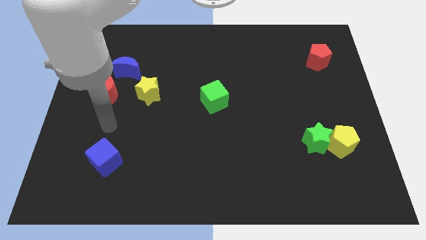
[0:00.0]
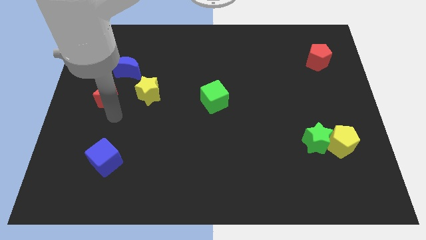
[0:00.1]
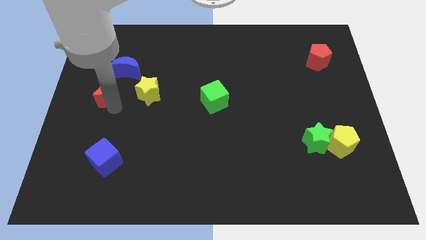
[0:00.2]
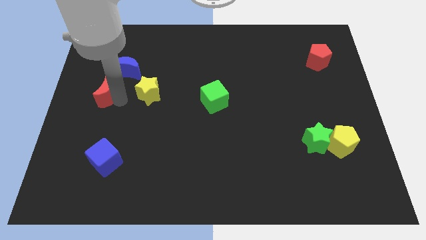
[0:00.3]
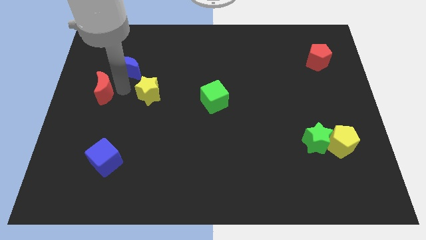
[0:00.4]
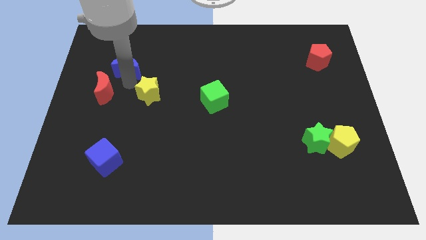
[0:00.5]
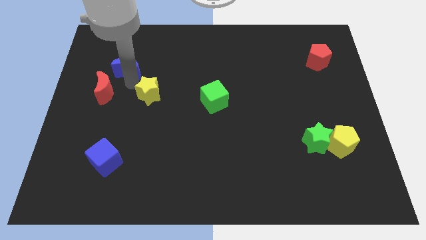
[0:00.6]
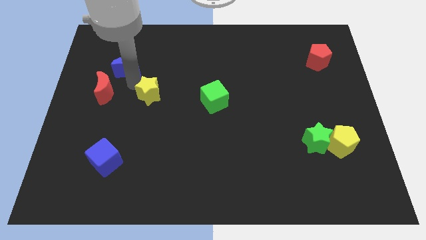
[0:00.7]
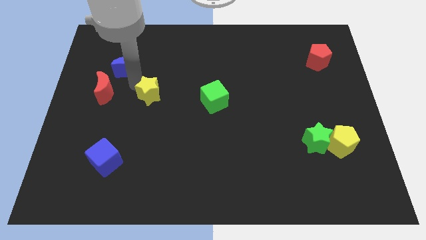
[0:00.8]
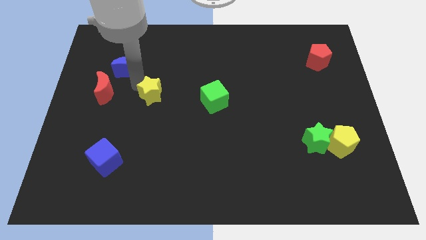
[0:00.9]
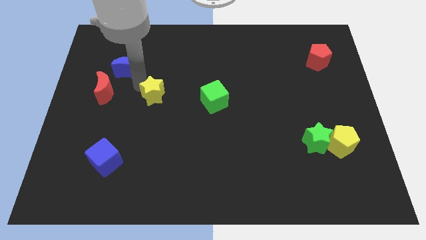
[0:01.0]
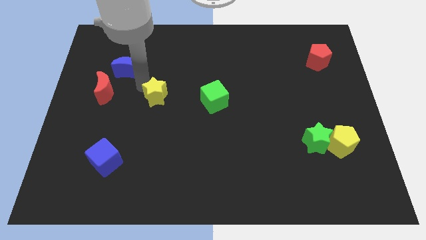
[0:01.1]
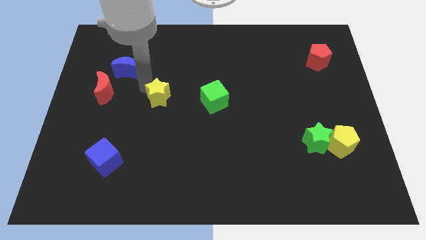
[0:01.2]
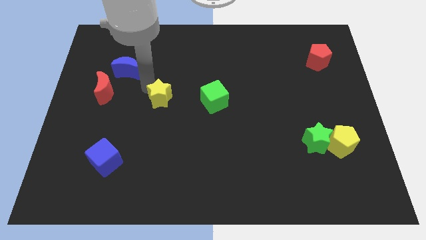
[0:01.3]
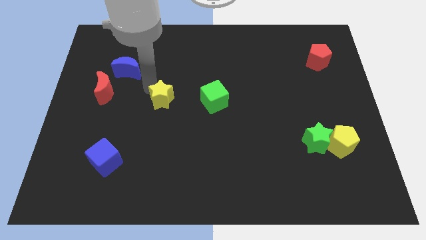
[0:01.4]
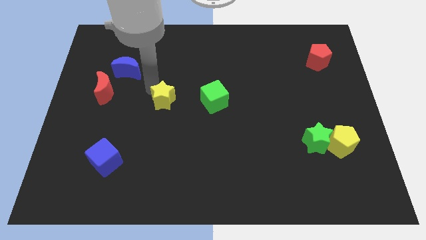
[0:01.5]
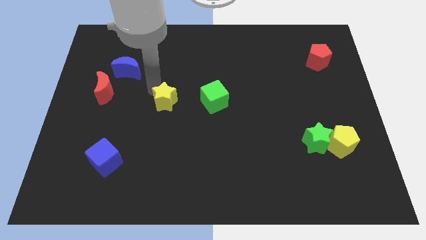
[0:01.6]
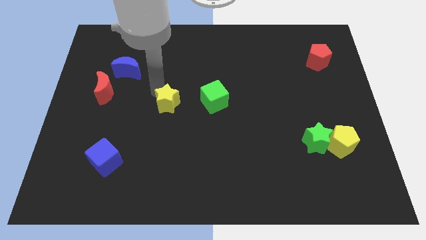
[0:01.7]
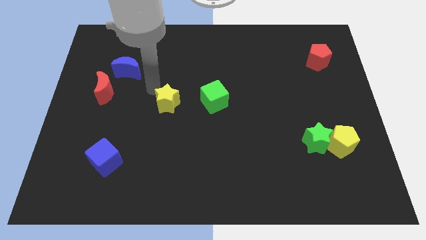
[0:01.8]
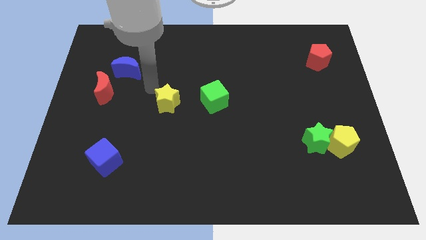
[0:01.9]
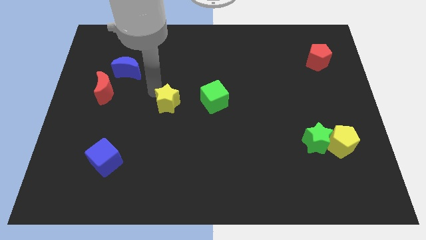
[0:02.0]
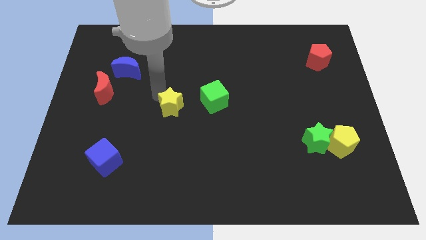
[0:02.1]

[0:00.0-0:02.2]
slightly slide the yellow star diagonally downwards and to the right

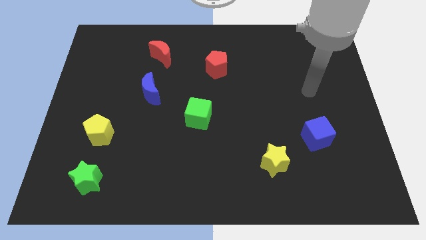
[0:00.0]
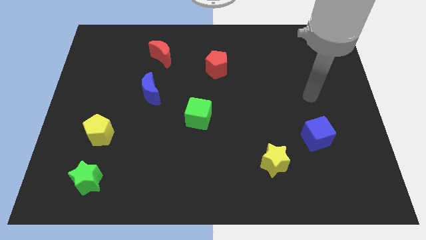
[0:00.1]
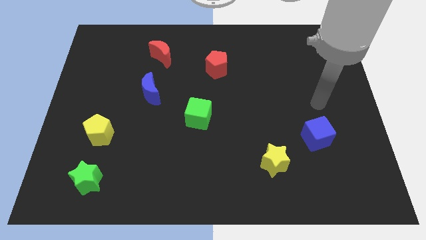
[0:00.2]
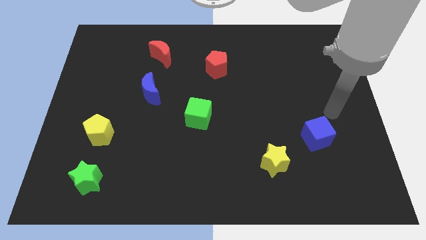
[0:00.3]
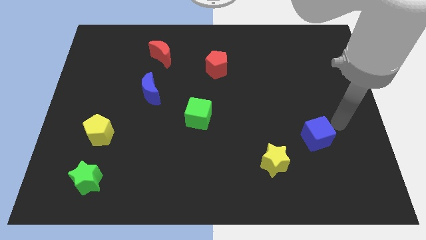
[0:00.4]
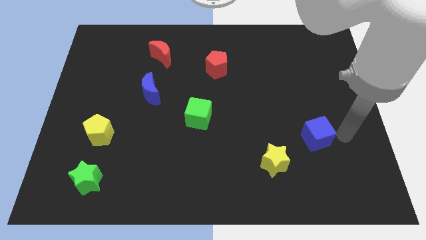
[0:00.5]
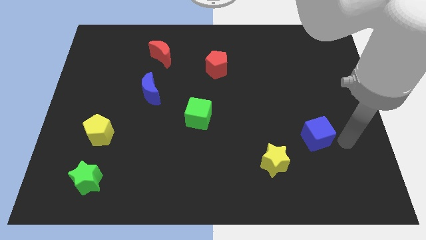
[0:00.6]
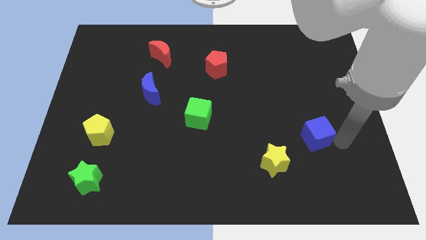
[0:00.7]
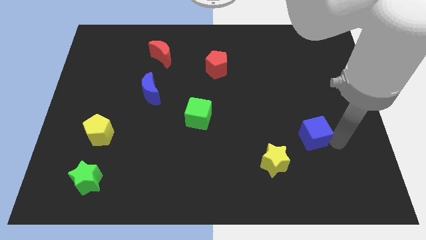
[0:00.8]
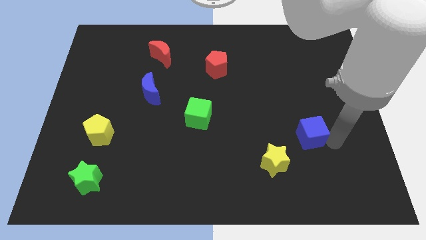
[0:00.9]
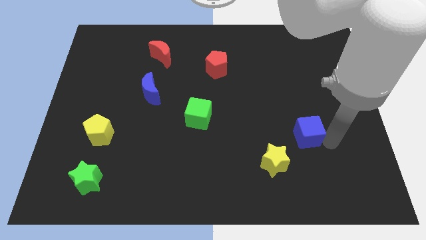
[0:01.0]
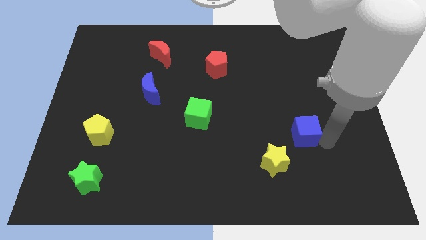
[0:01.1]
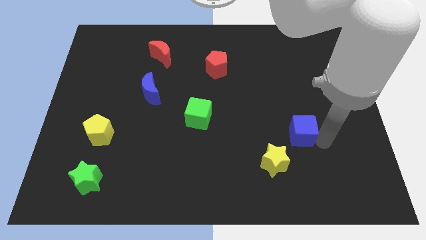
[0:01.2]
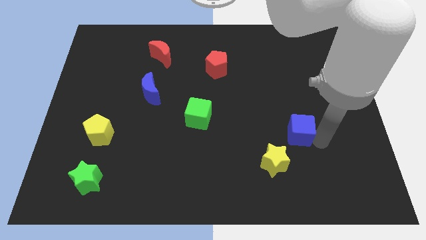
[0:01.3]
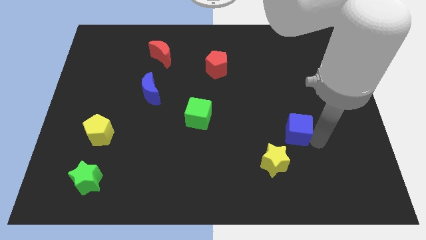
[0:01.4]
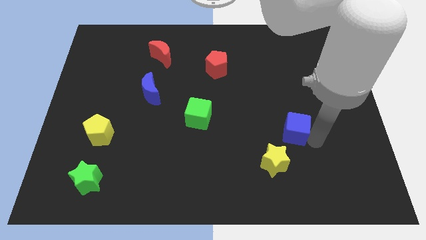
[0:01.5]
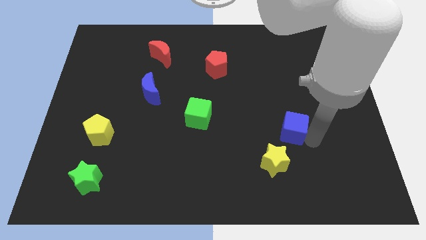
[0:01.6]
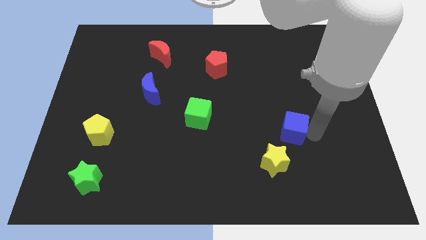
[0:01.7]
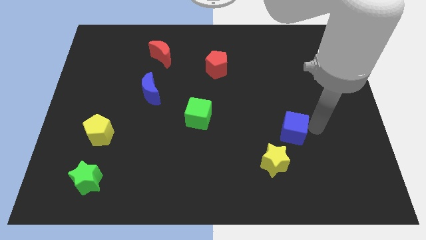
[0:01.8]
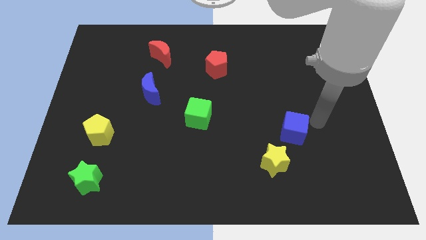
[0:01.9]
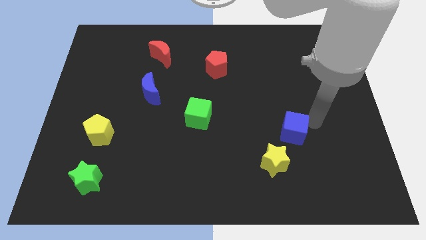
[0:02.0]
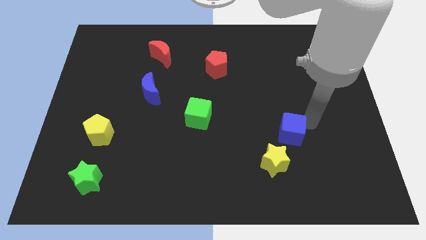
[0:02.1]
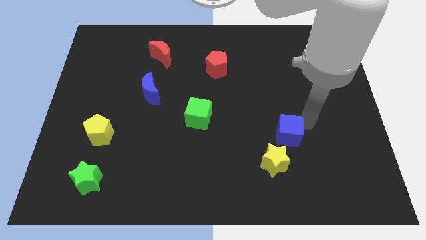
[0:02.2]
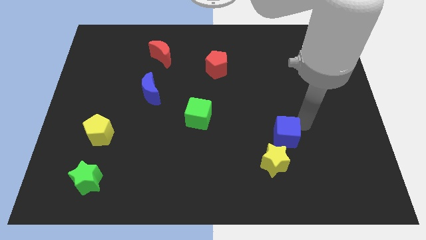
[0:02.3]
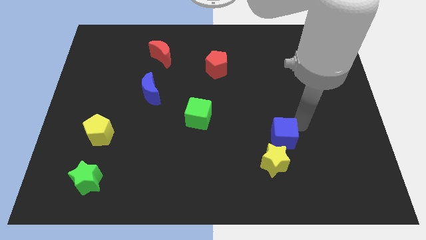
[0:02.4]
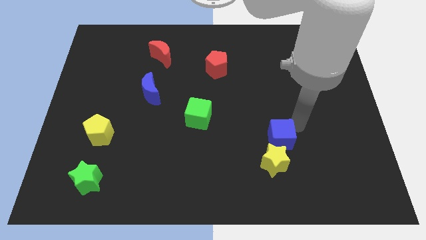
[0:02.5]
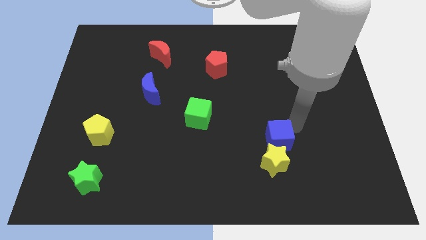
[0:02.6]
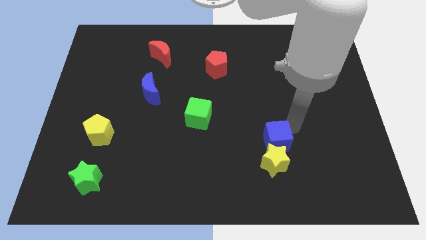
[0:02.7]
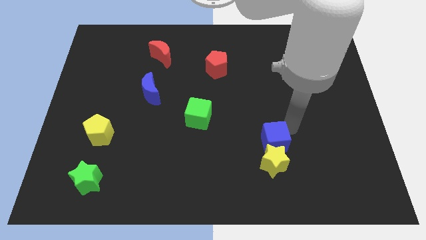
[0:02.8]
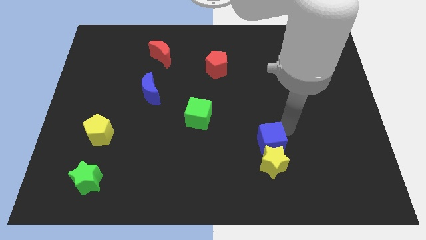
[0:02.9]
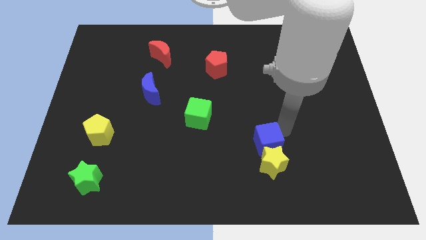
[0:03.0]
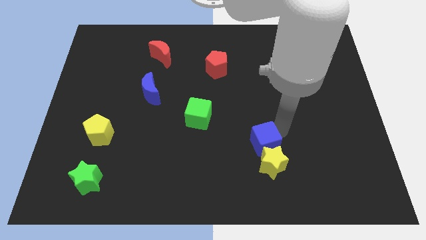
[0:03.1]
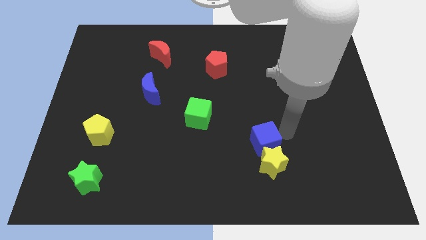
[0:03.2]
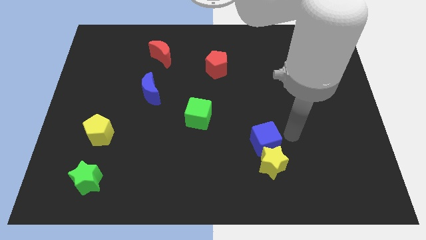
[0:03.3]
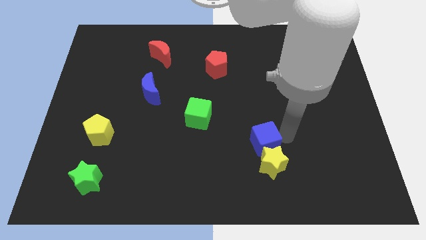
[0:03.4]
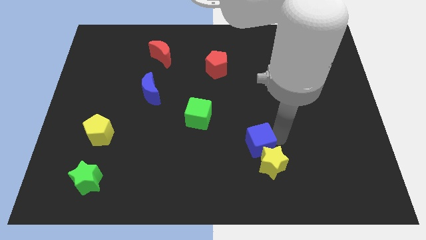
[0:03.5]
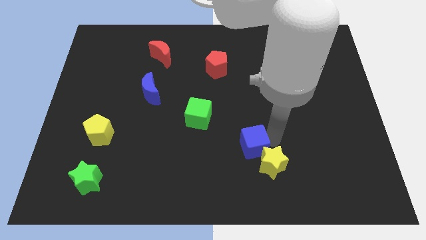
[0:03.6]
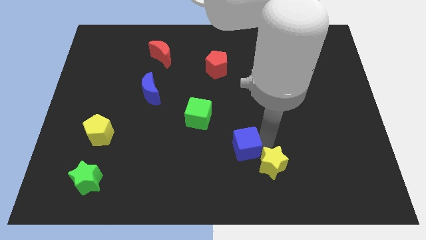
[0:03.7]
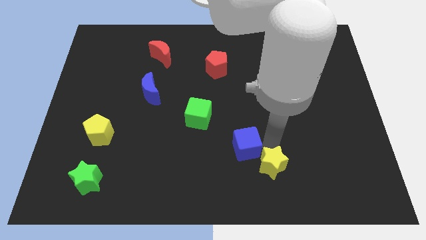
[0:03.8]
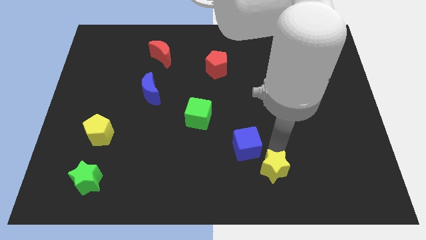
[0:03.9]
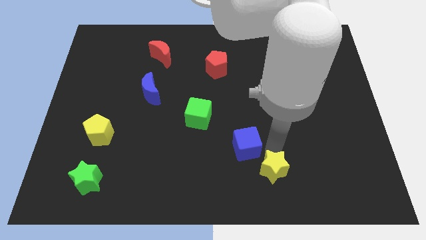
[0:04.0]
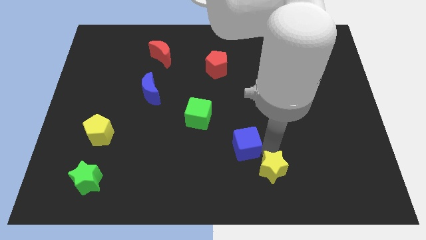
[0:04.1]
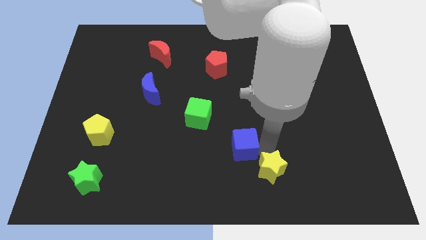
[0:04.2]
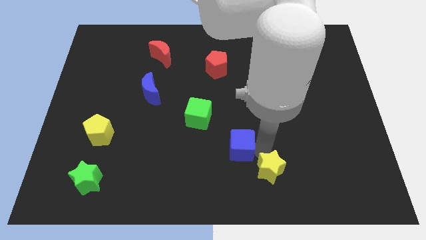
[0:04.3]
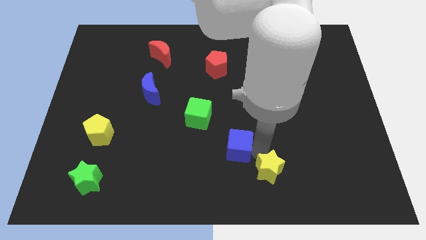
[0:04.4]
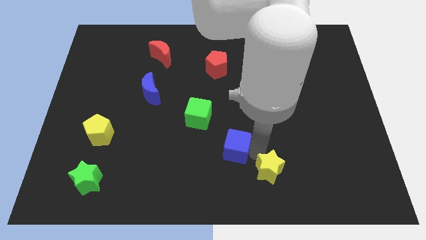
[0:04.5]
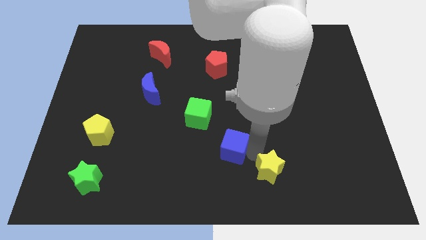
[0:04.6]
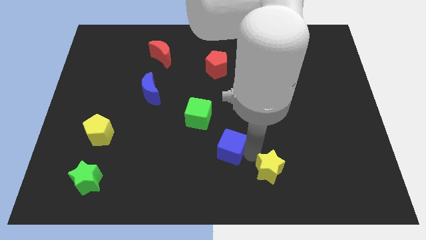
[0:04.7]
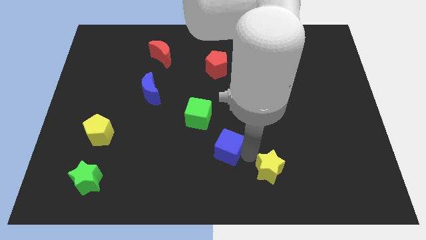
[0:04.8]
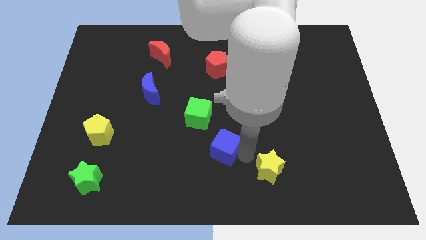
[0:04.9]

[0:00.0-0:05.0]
push the blue cube left

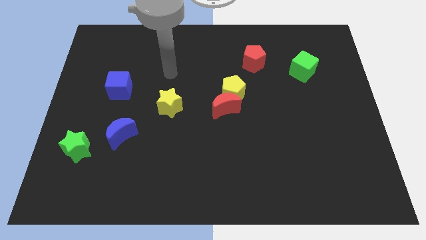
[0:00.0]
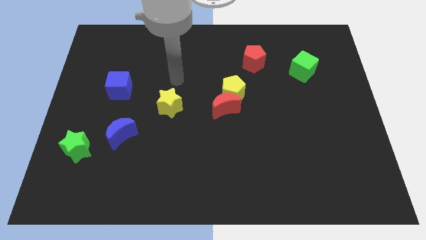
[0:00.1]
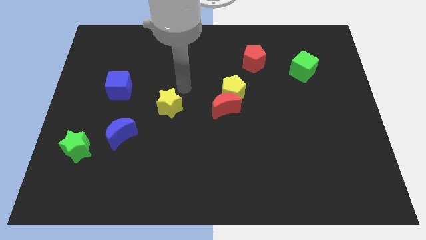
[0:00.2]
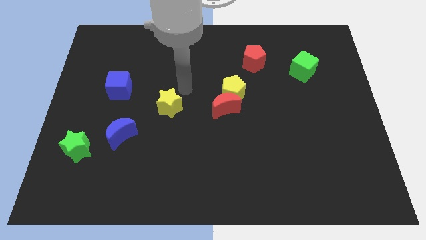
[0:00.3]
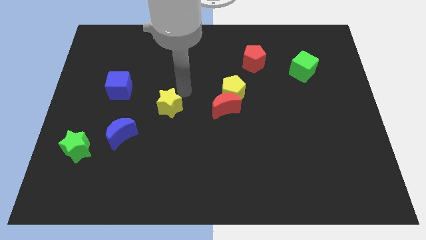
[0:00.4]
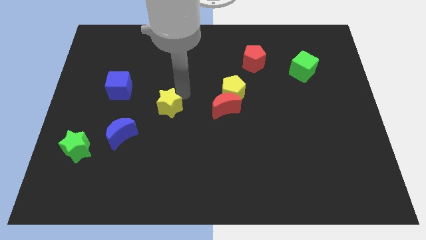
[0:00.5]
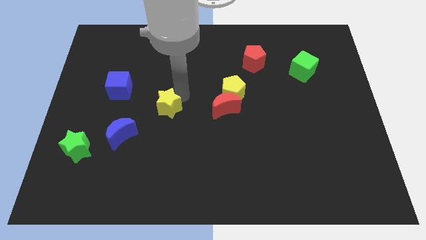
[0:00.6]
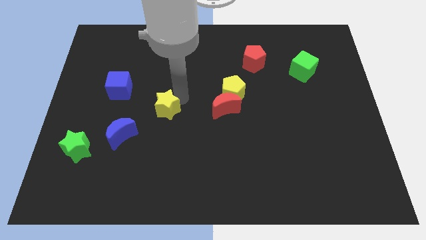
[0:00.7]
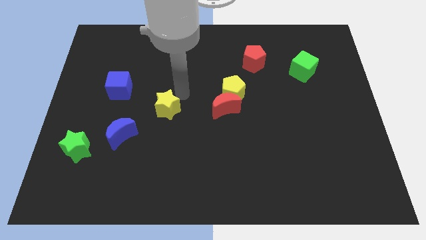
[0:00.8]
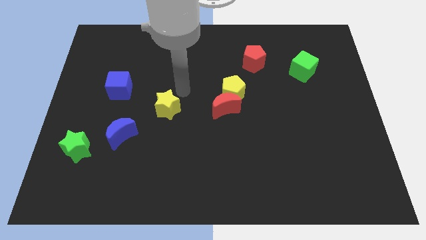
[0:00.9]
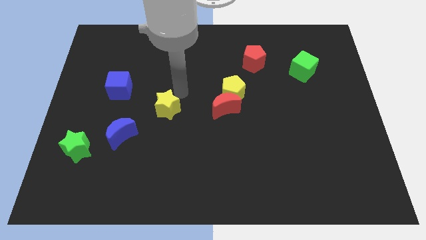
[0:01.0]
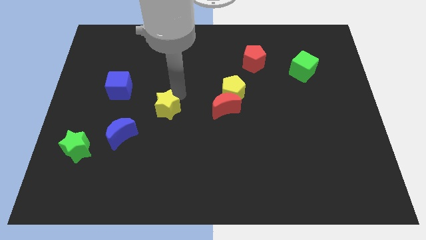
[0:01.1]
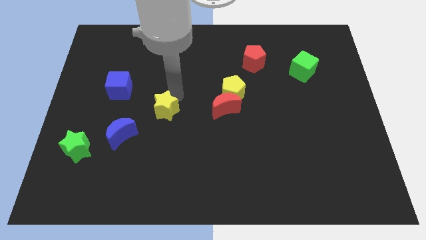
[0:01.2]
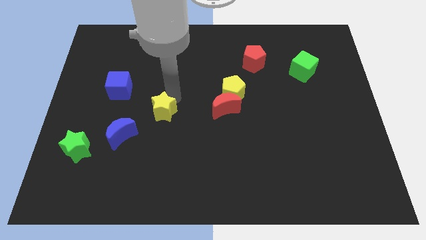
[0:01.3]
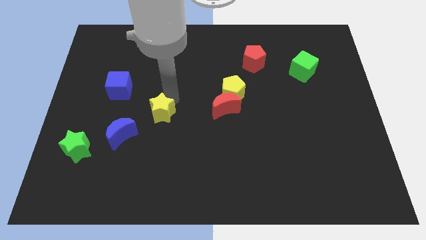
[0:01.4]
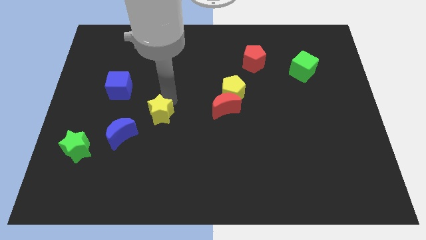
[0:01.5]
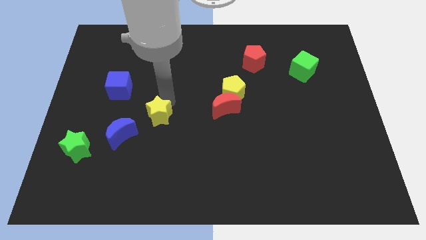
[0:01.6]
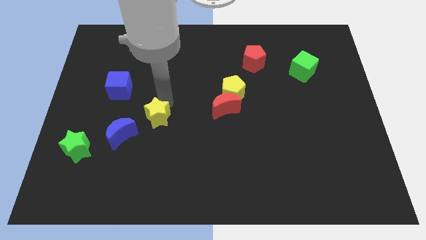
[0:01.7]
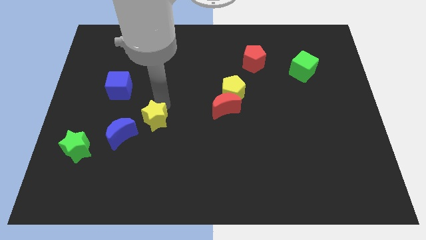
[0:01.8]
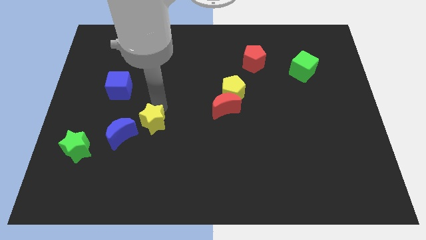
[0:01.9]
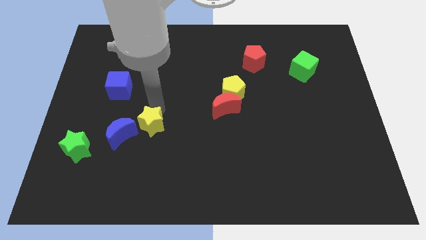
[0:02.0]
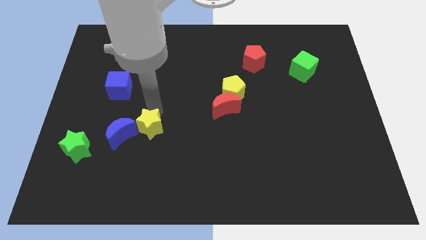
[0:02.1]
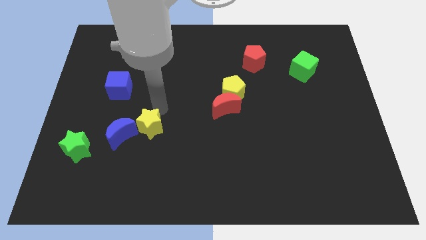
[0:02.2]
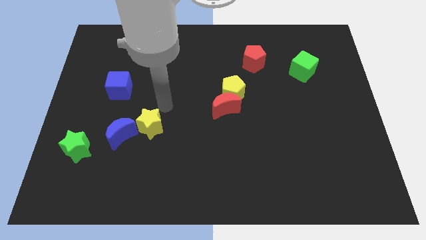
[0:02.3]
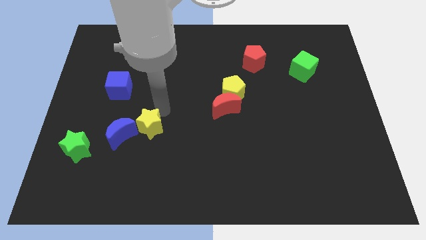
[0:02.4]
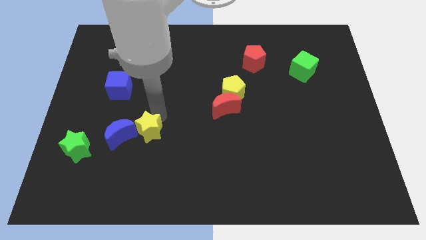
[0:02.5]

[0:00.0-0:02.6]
push the yellow star a little diagonally down and left
